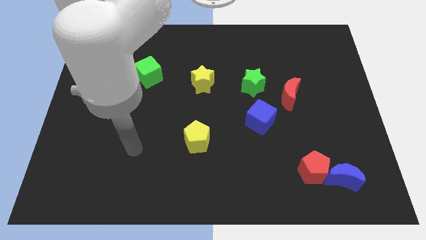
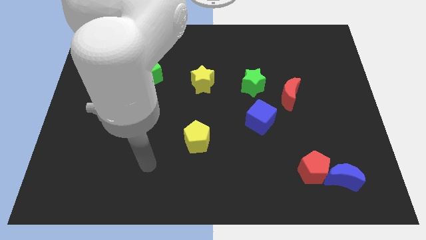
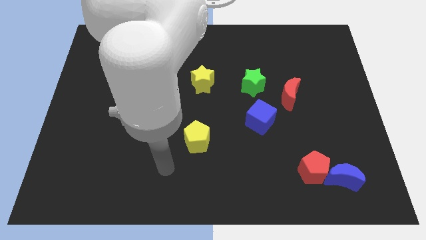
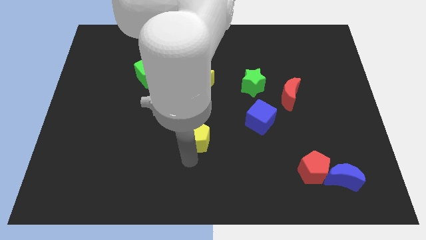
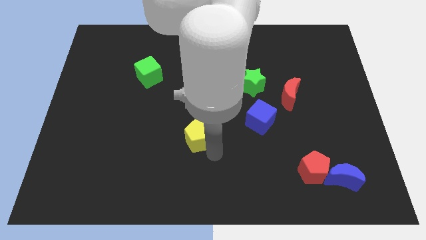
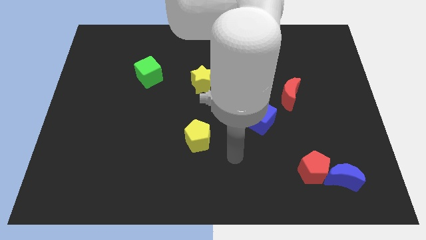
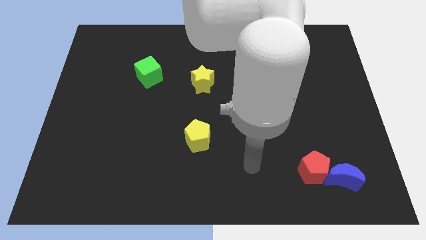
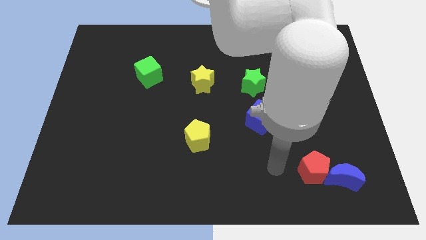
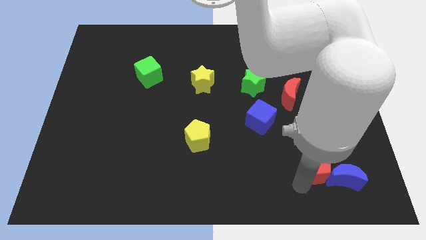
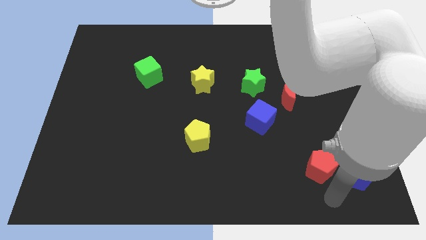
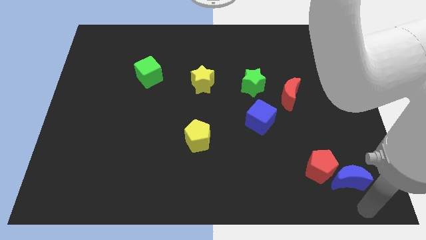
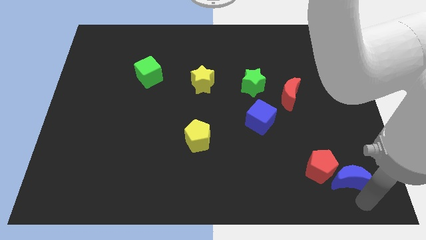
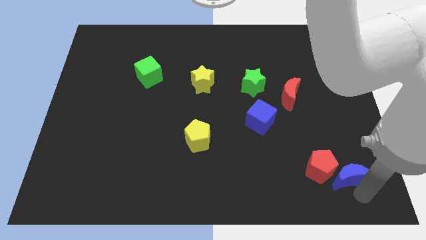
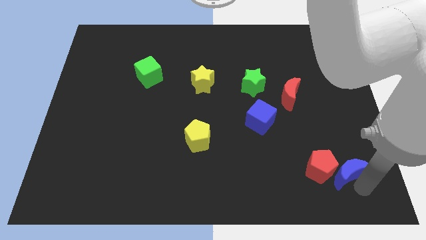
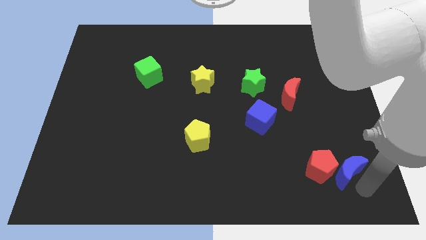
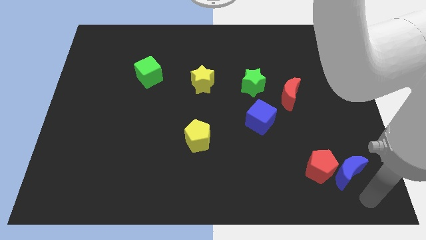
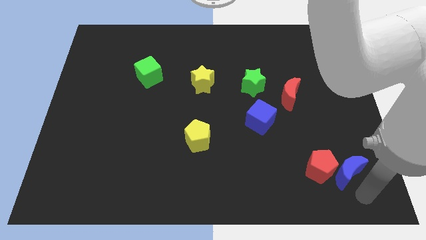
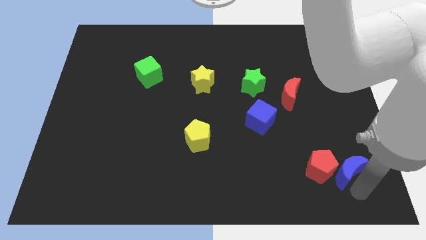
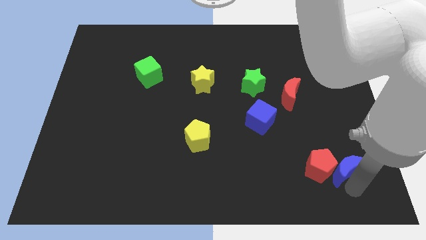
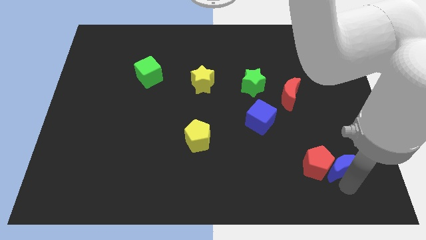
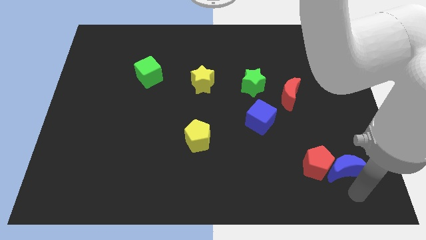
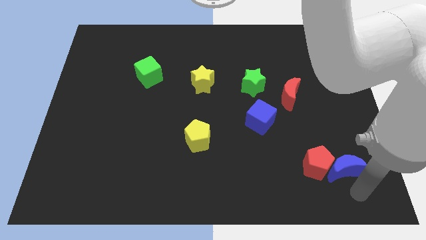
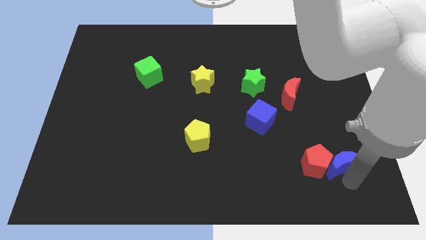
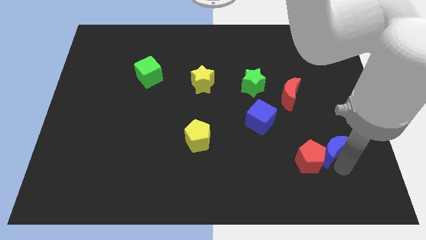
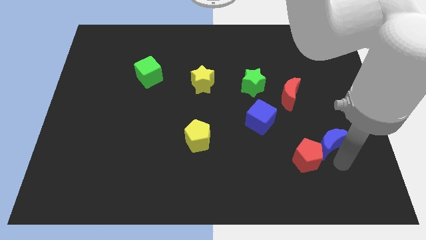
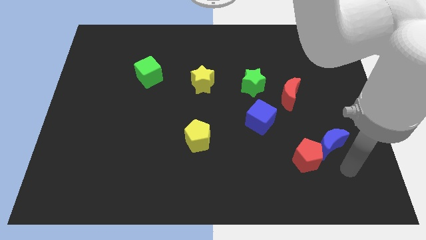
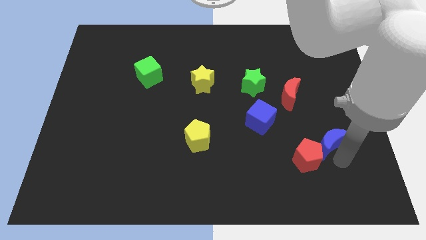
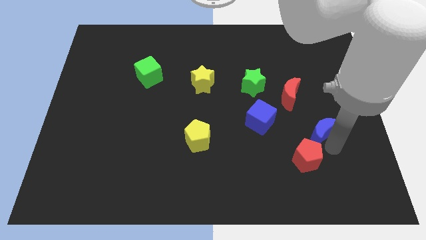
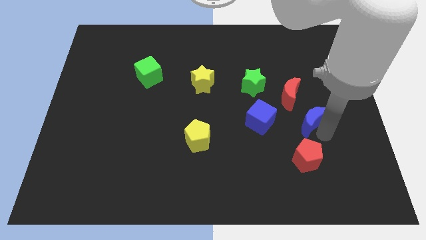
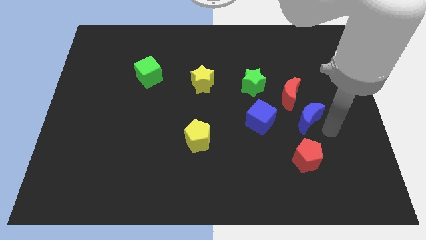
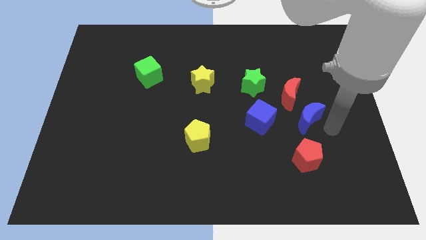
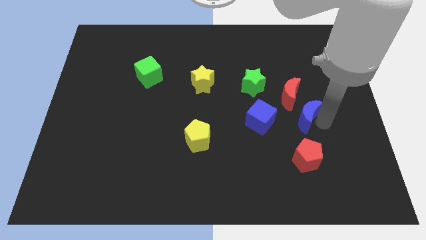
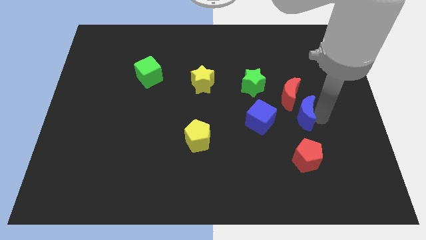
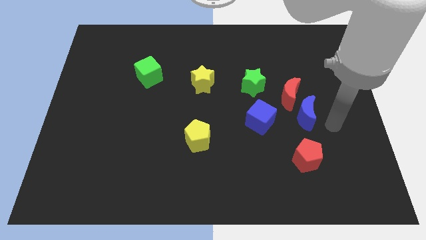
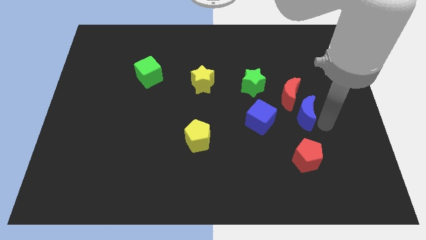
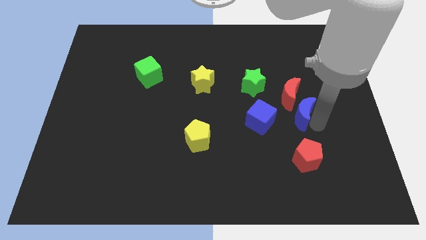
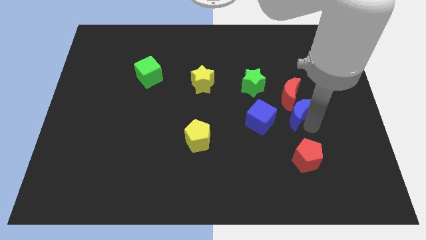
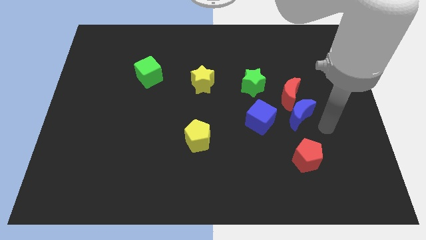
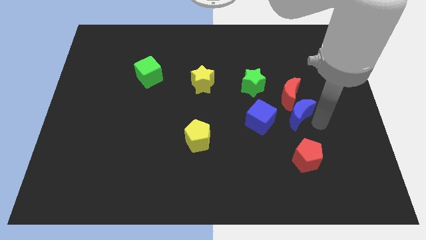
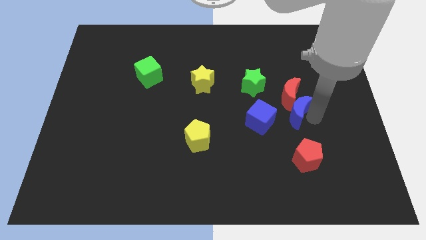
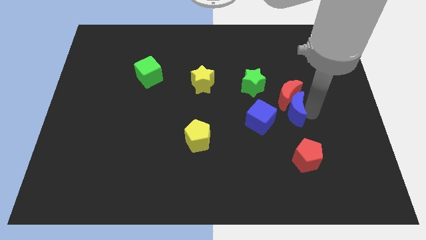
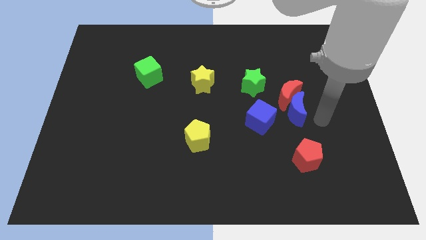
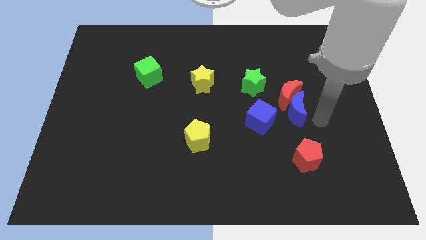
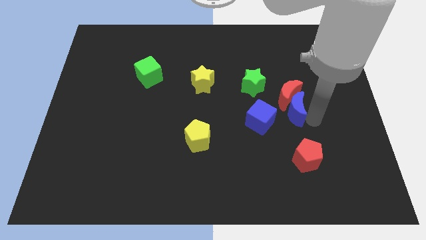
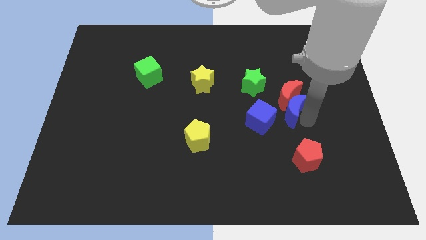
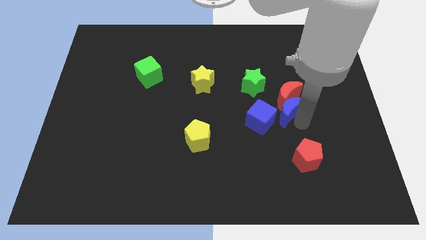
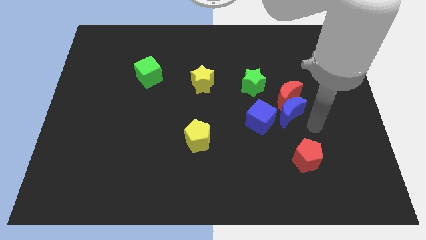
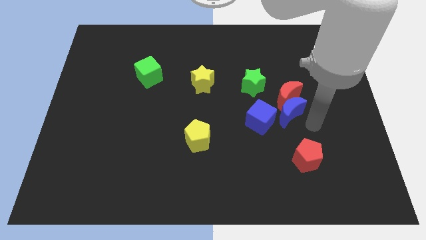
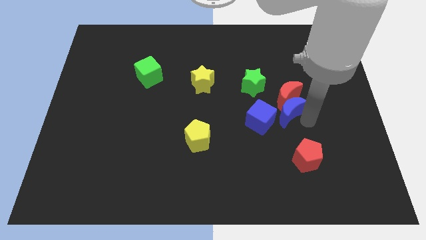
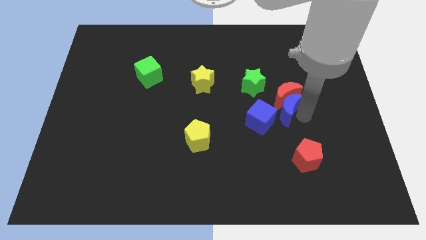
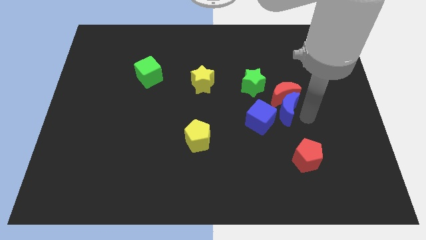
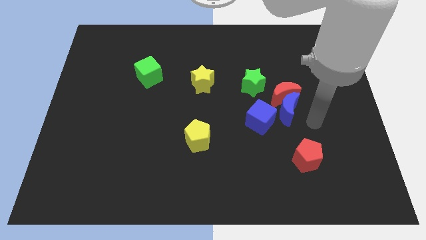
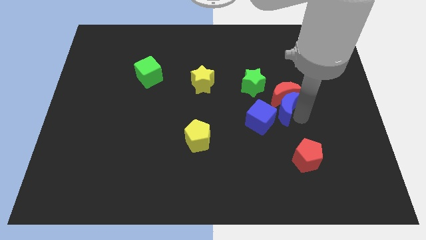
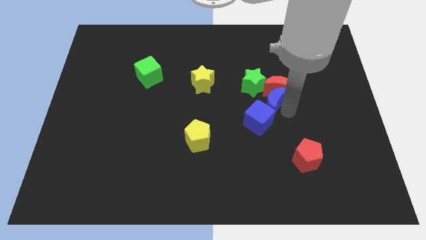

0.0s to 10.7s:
slide the blue moon up and to the left

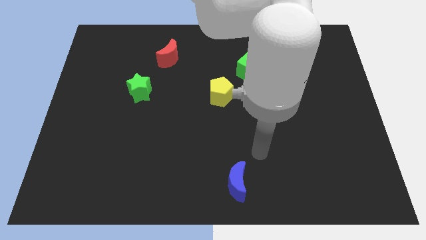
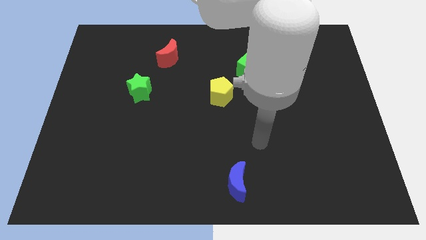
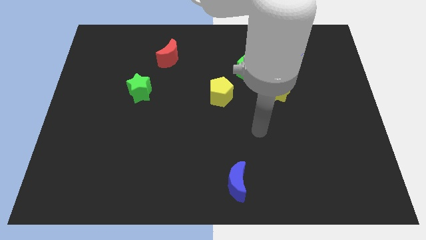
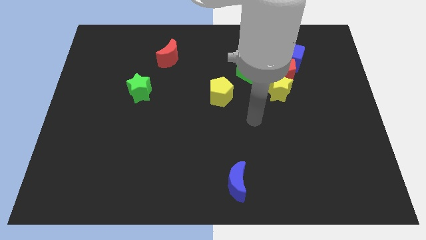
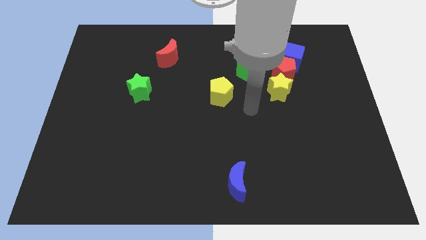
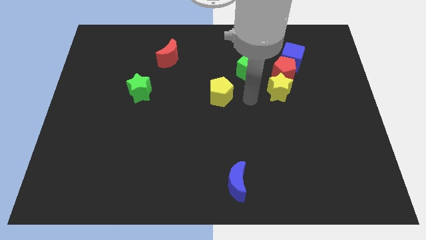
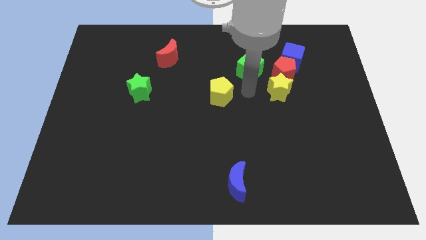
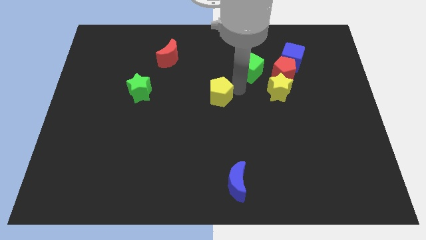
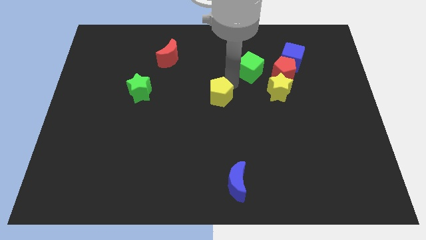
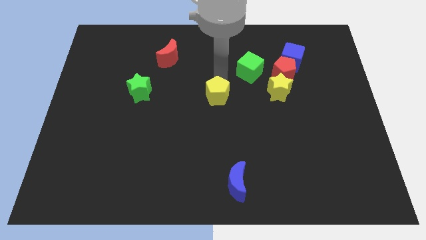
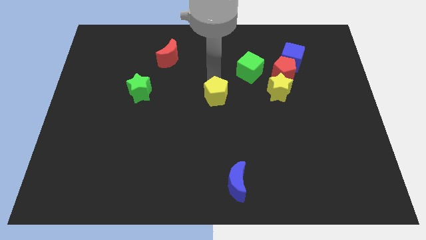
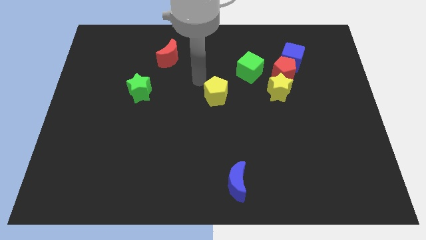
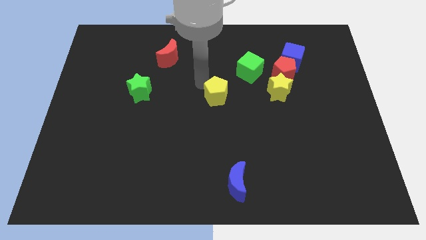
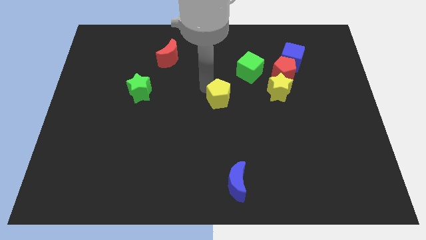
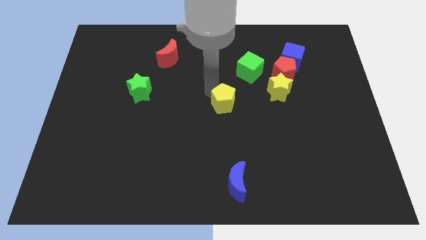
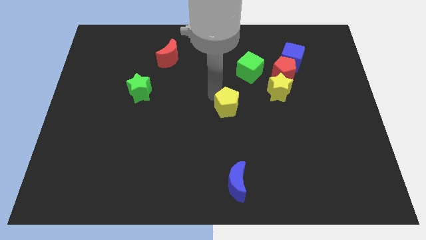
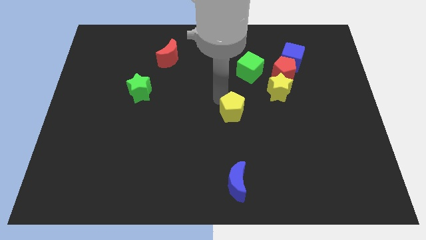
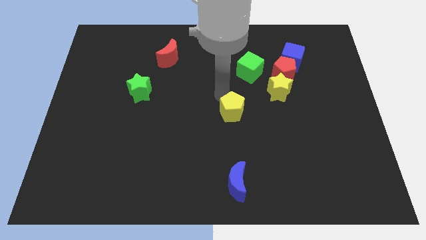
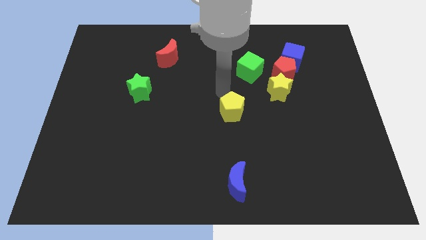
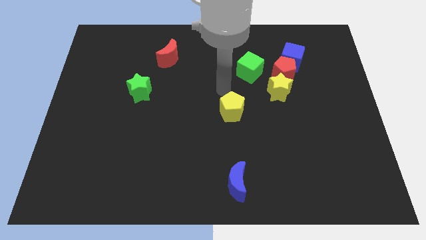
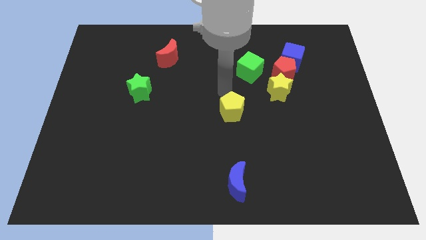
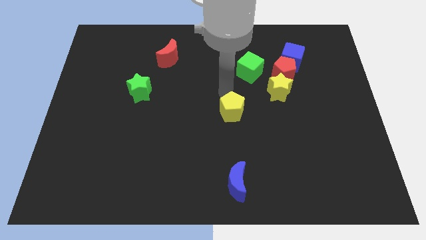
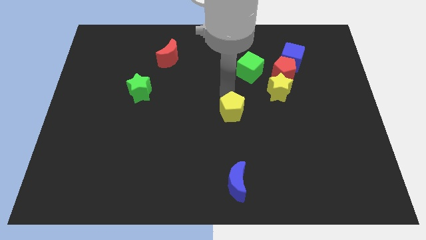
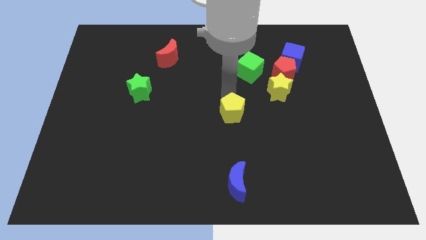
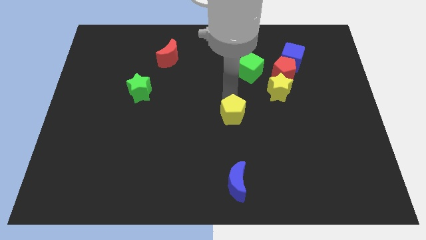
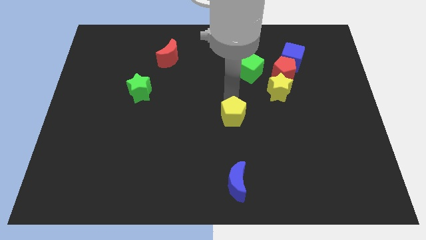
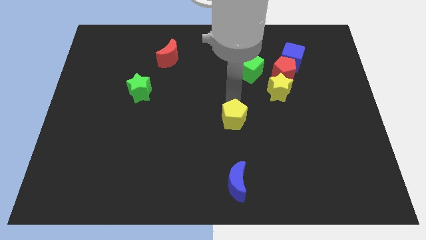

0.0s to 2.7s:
slightly slide the yellow pentagon down
